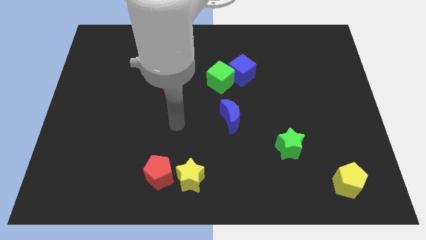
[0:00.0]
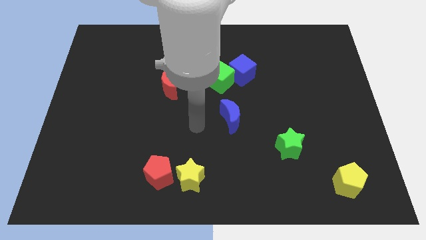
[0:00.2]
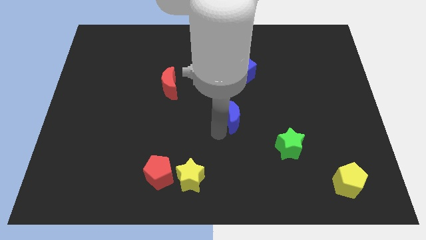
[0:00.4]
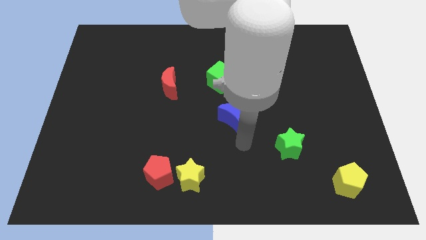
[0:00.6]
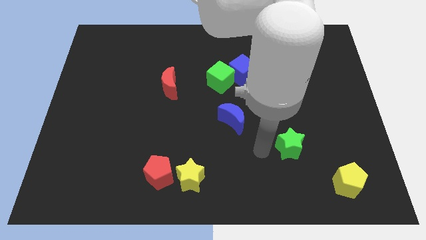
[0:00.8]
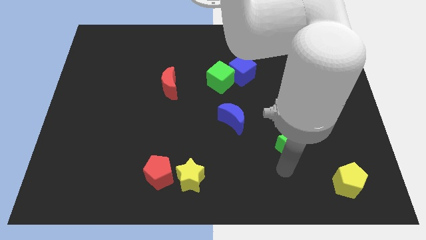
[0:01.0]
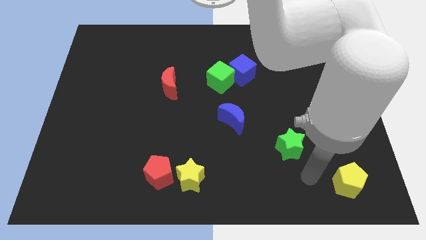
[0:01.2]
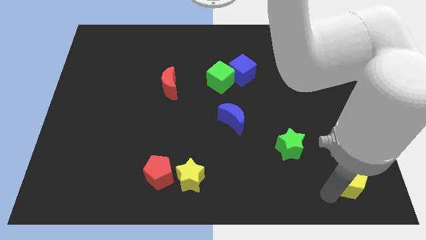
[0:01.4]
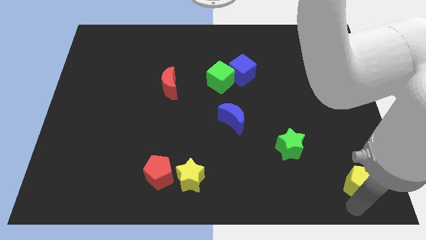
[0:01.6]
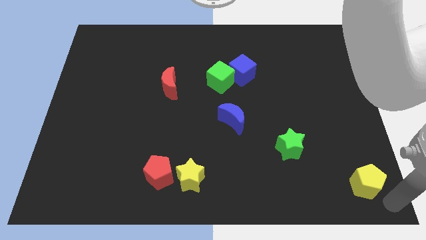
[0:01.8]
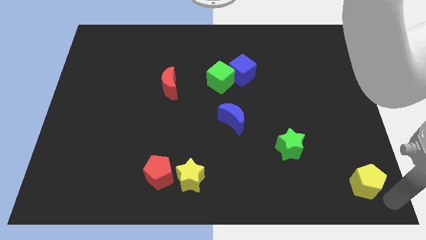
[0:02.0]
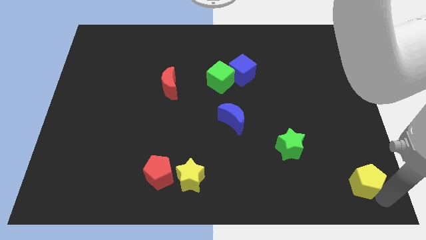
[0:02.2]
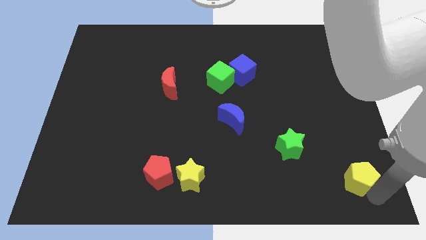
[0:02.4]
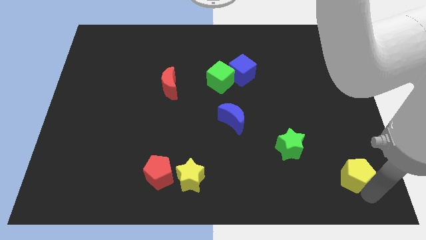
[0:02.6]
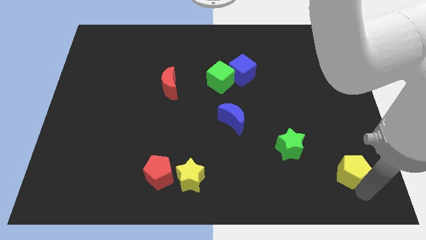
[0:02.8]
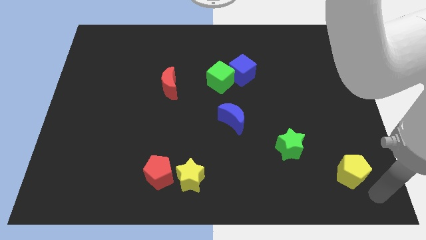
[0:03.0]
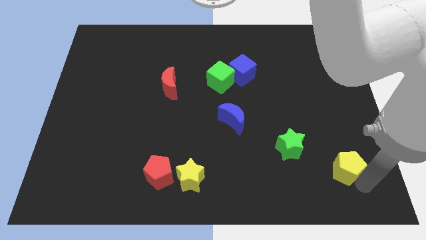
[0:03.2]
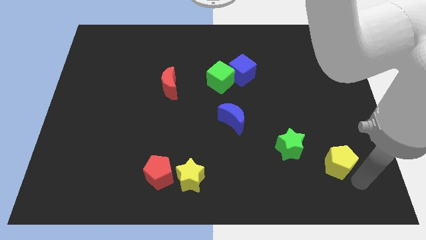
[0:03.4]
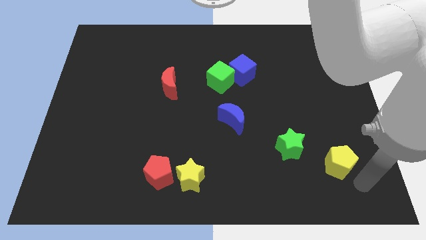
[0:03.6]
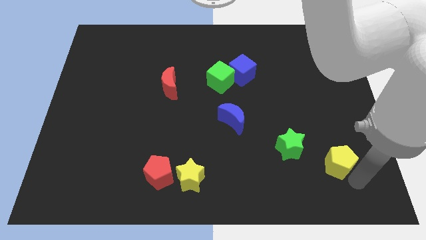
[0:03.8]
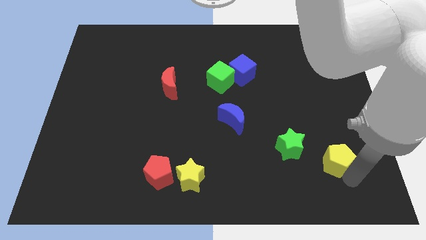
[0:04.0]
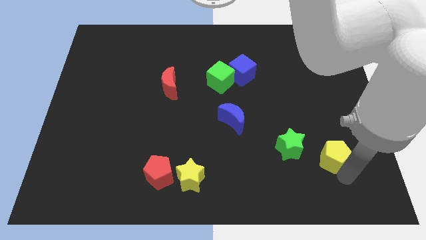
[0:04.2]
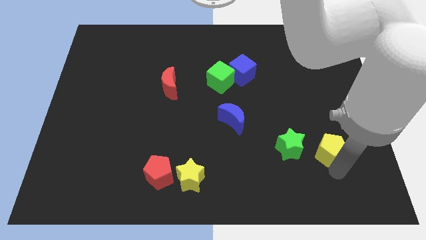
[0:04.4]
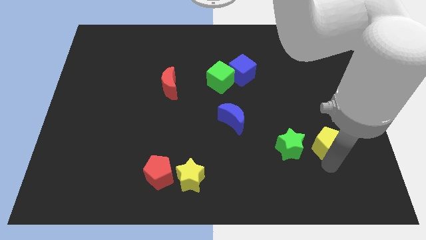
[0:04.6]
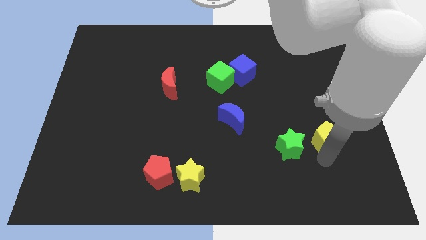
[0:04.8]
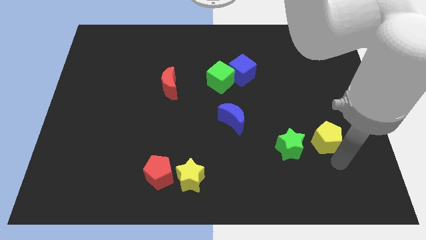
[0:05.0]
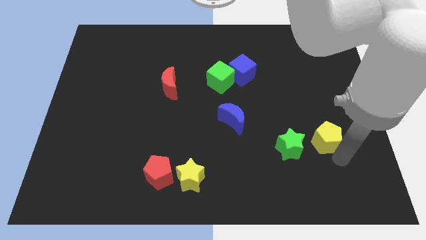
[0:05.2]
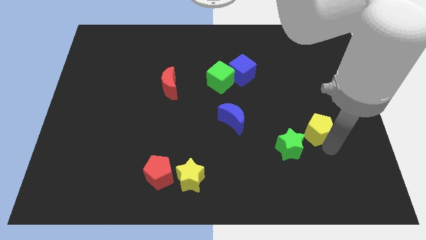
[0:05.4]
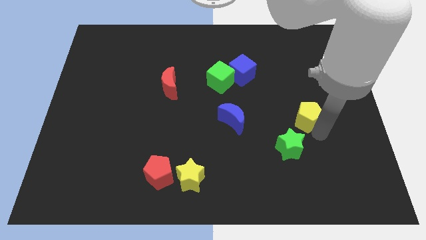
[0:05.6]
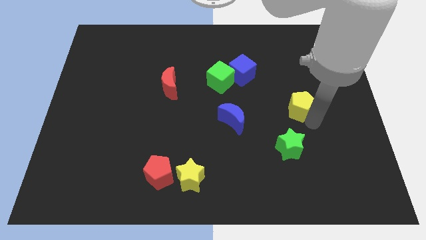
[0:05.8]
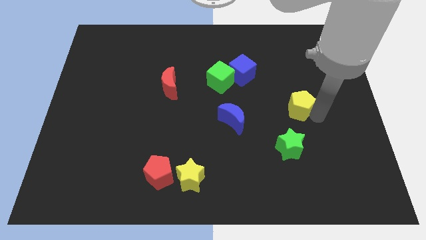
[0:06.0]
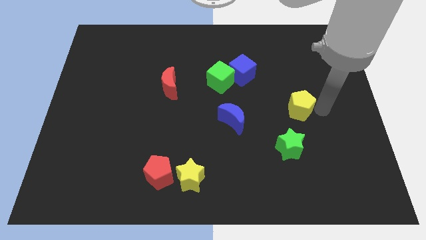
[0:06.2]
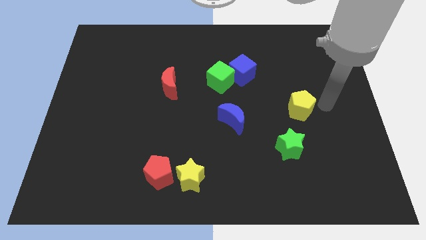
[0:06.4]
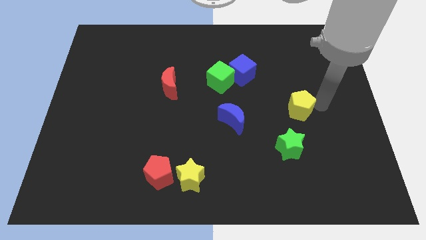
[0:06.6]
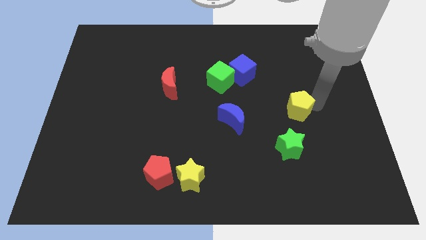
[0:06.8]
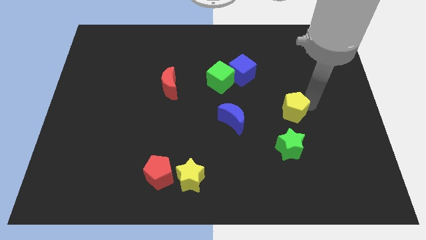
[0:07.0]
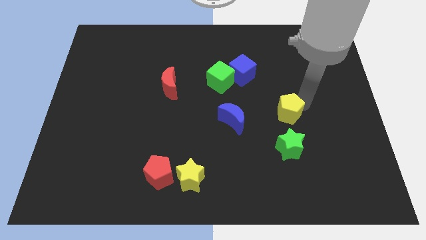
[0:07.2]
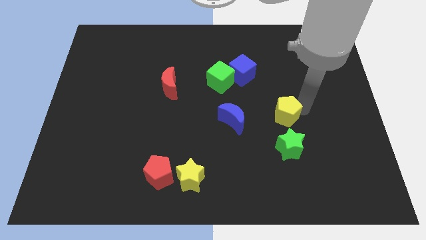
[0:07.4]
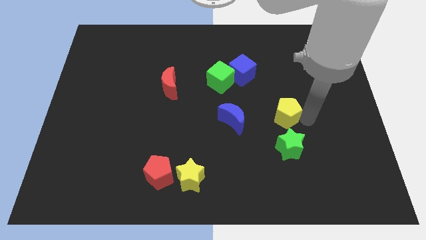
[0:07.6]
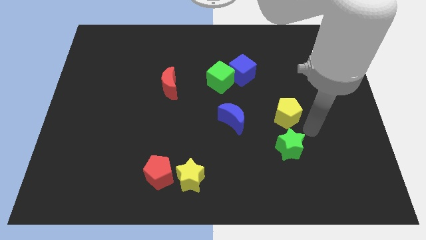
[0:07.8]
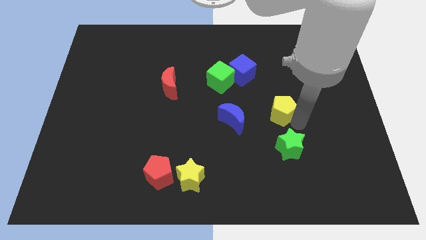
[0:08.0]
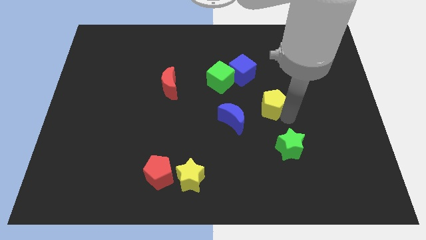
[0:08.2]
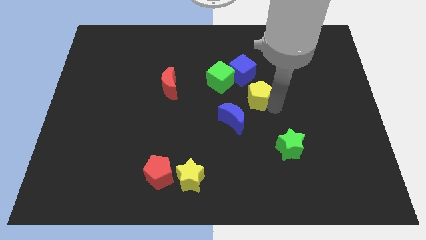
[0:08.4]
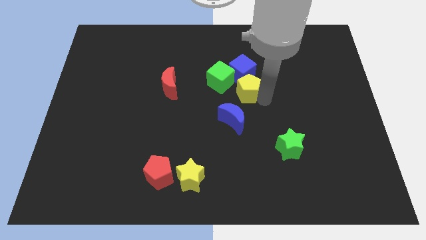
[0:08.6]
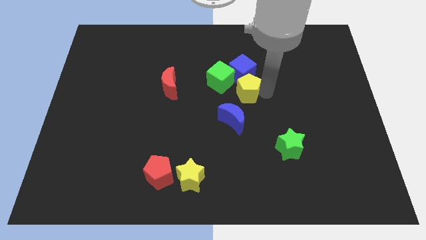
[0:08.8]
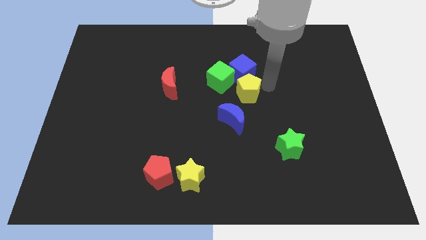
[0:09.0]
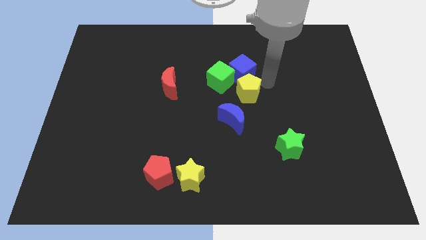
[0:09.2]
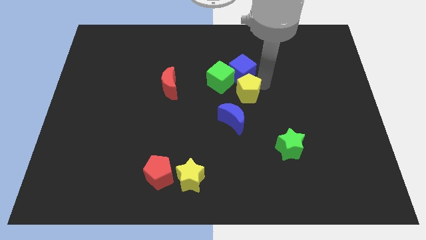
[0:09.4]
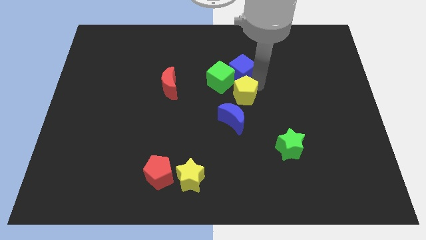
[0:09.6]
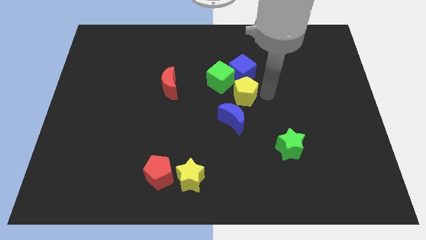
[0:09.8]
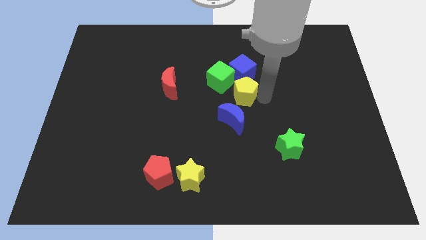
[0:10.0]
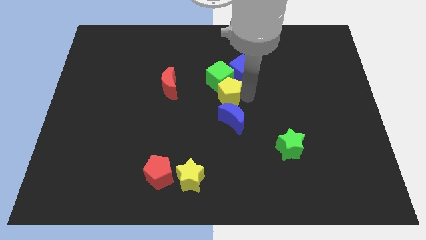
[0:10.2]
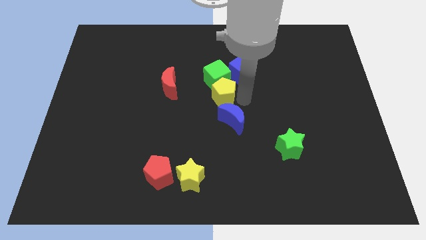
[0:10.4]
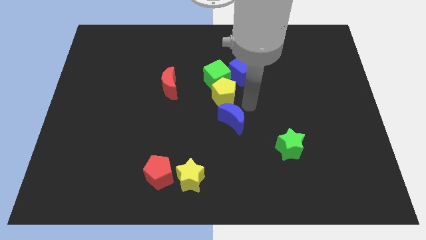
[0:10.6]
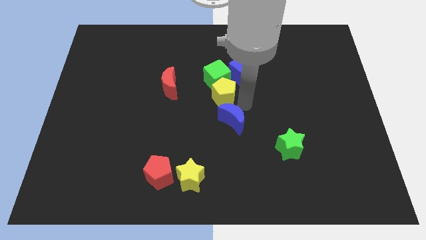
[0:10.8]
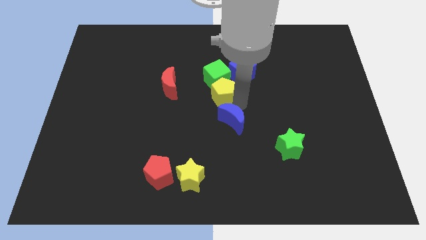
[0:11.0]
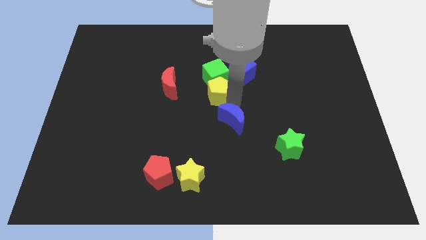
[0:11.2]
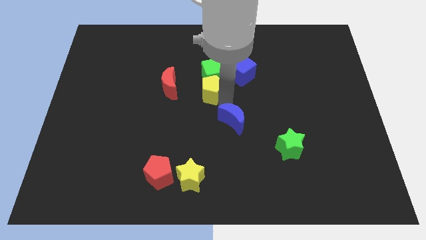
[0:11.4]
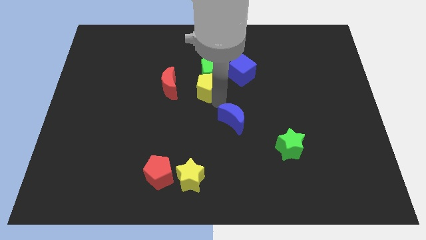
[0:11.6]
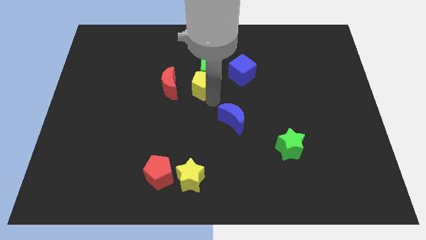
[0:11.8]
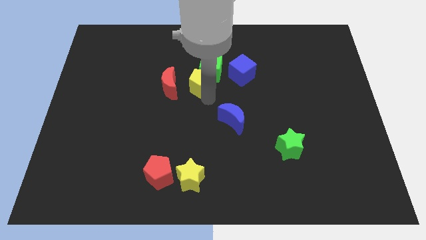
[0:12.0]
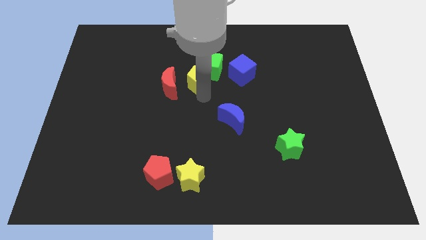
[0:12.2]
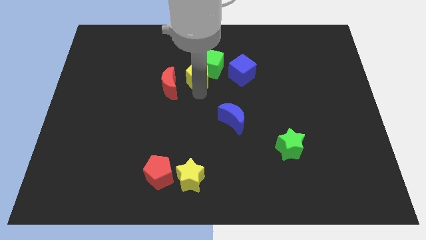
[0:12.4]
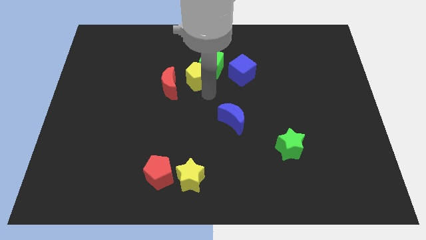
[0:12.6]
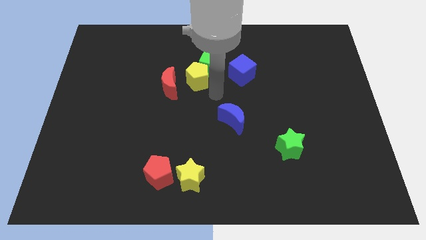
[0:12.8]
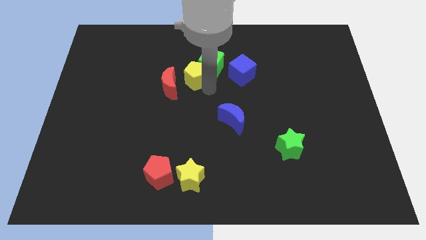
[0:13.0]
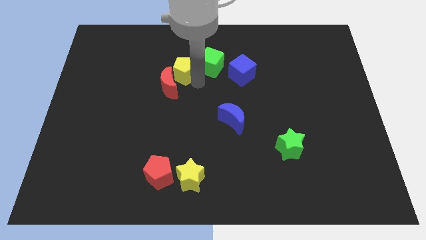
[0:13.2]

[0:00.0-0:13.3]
slide the yellow pentagon to the top of the red moon
